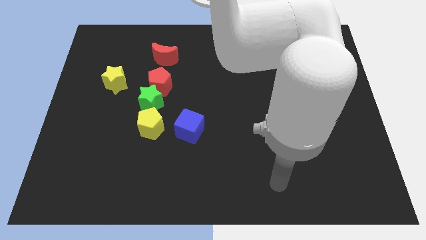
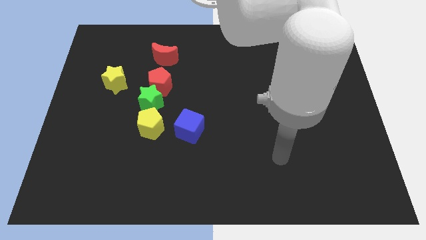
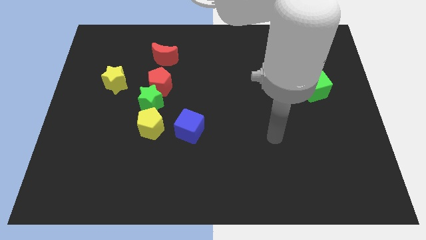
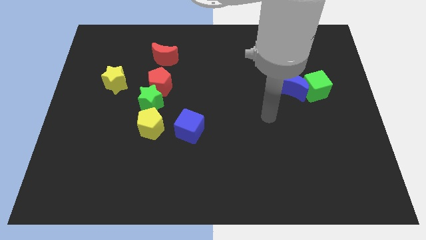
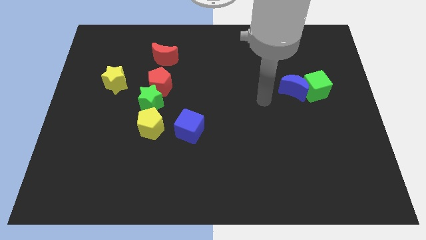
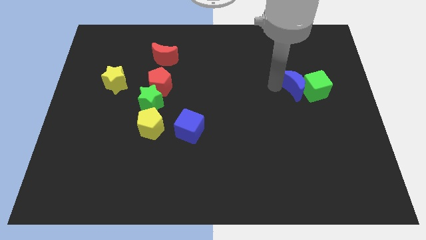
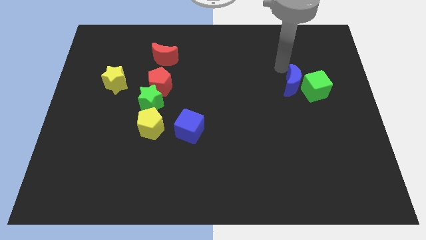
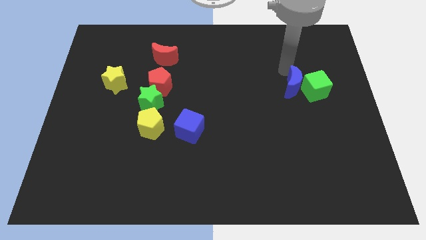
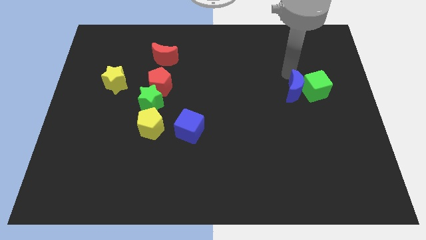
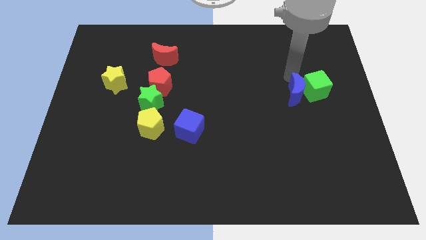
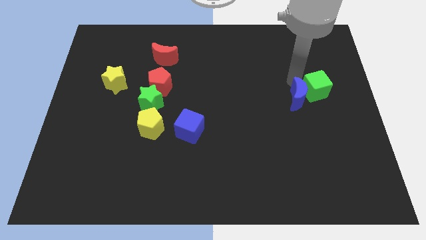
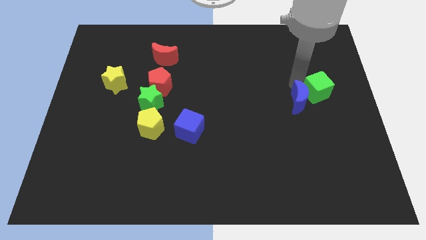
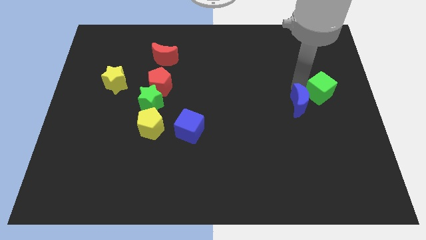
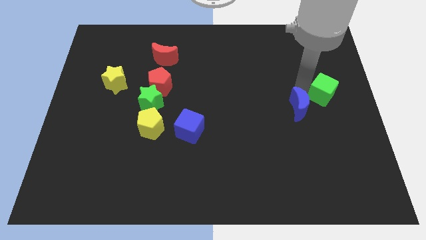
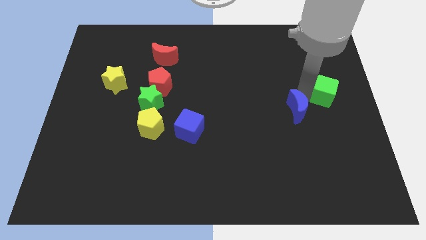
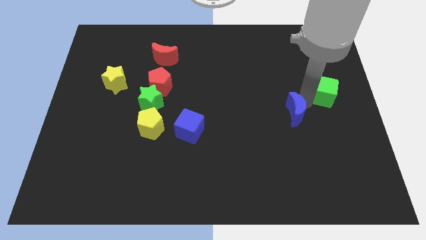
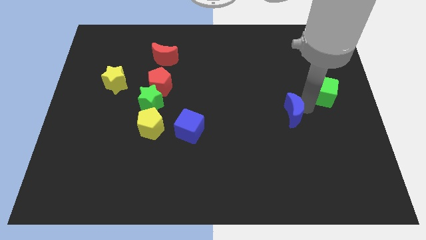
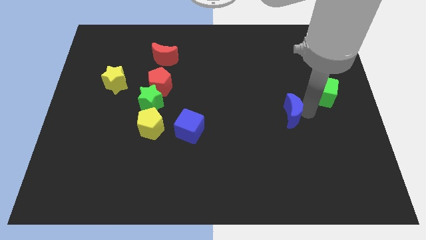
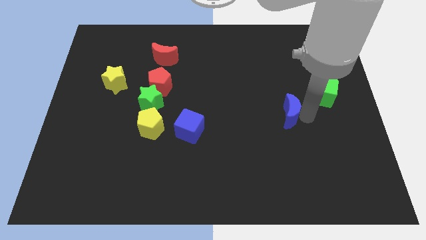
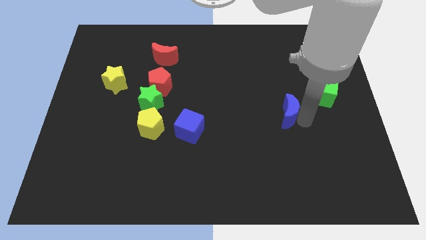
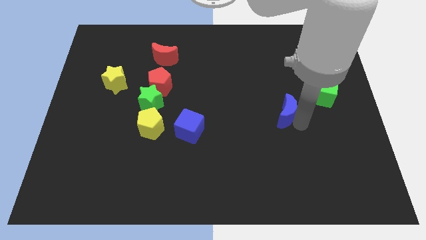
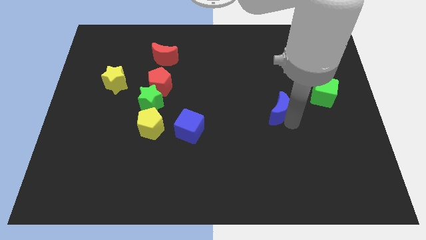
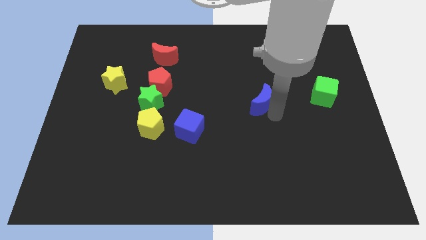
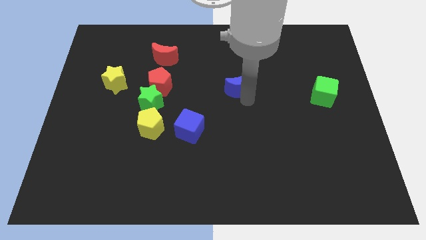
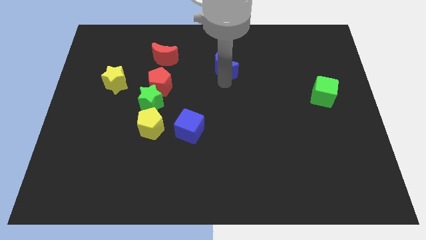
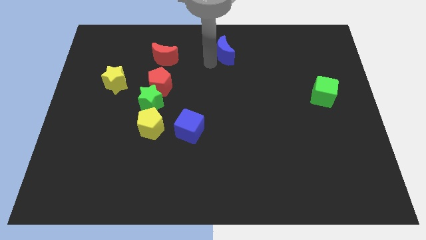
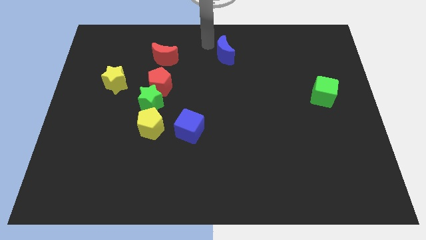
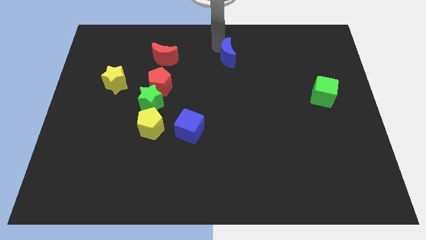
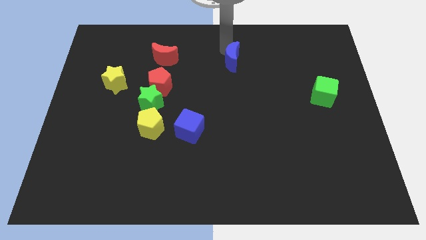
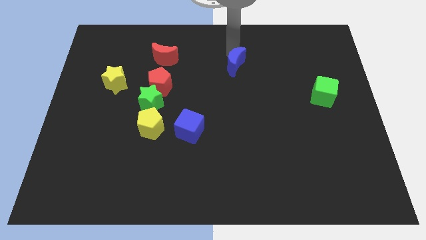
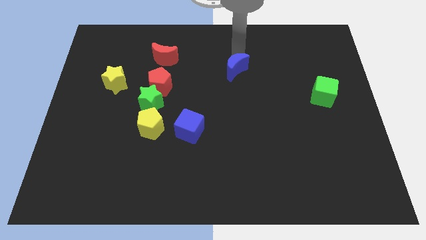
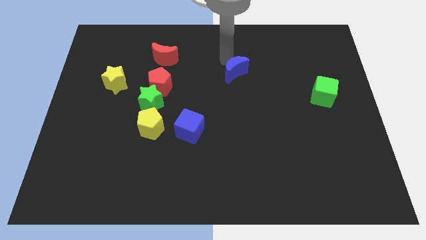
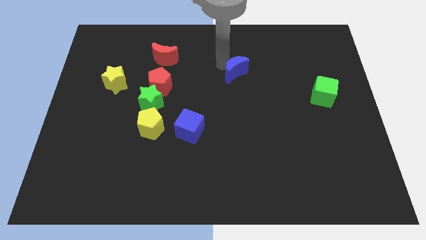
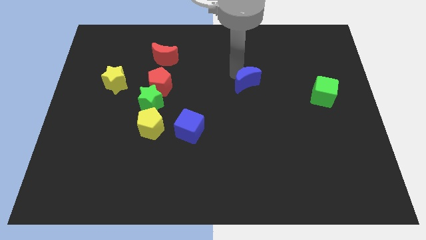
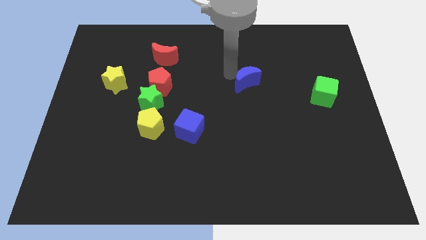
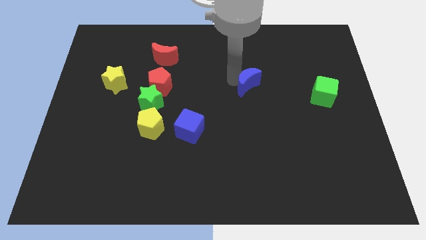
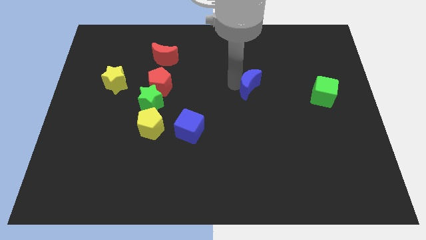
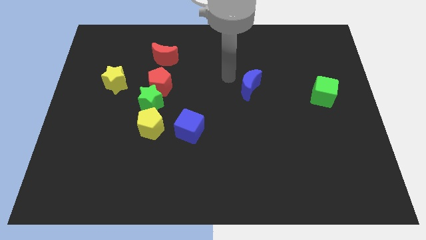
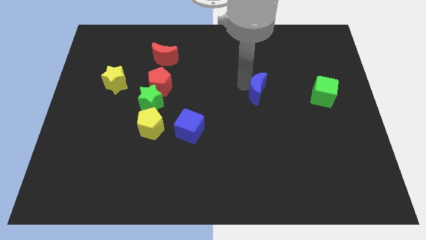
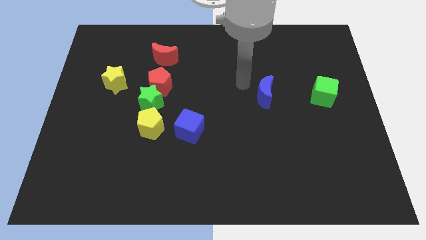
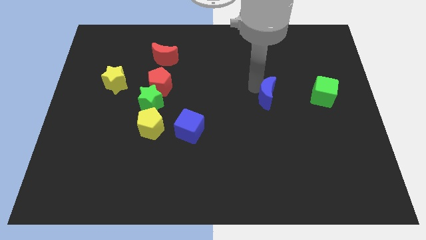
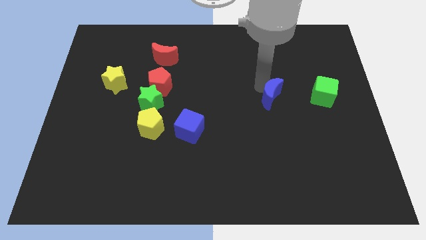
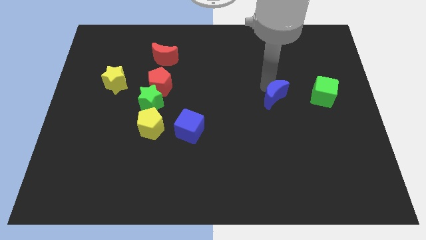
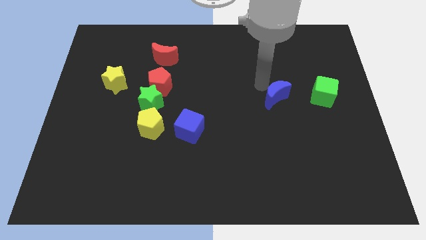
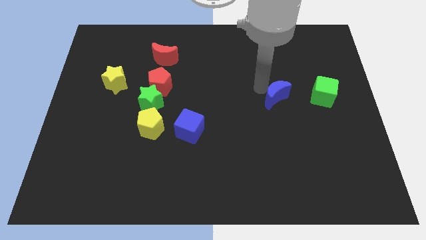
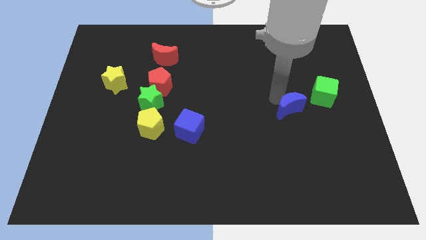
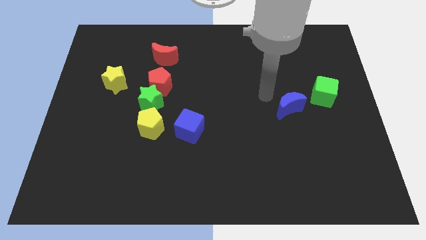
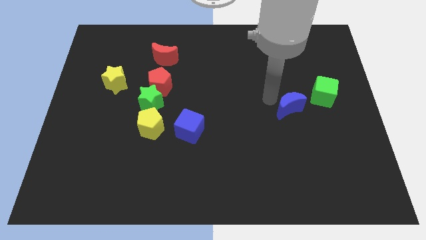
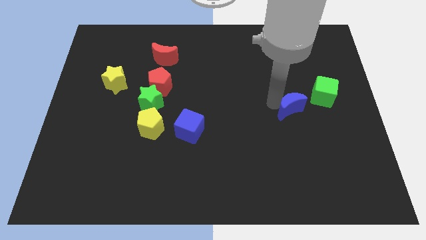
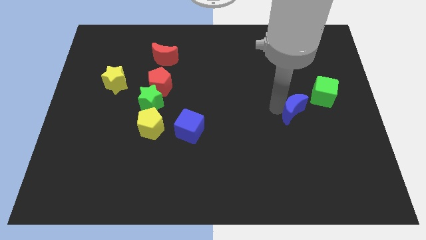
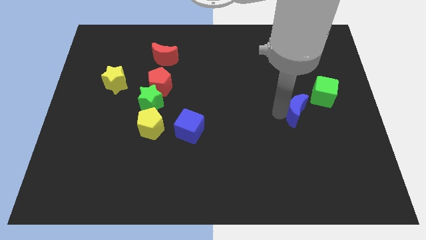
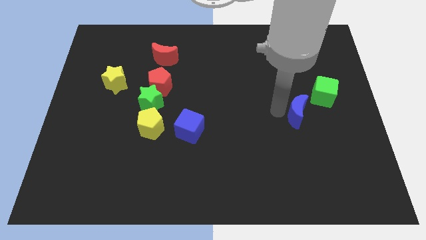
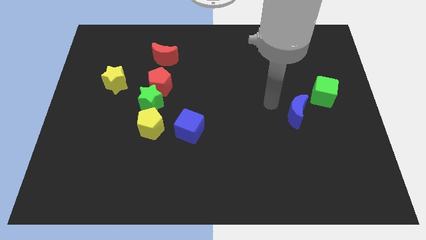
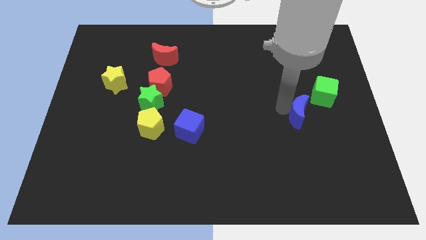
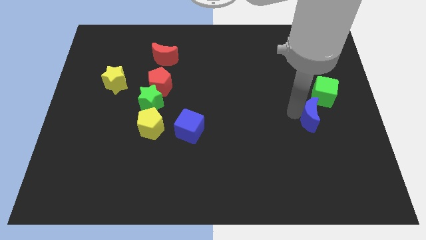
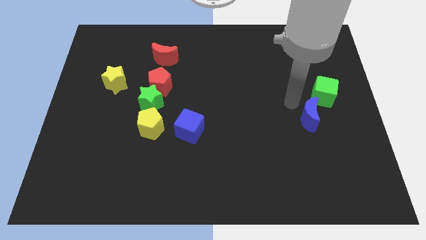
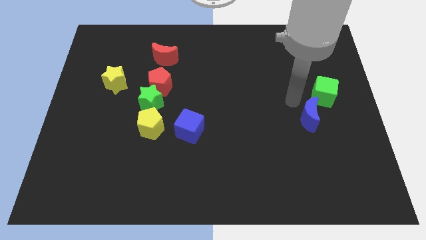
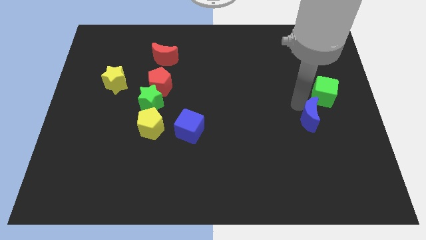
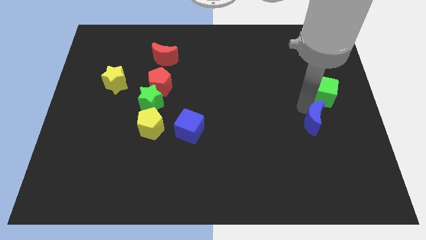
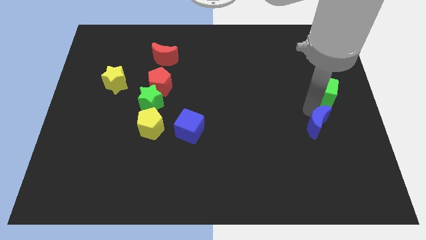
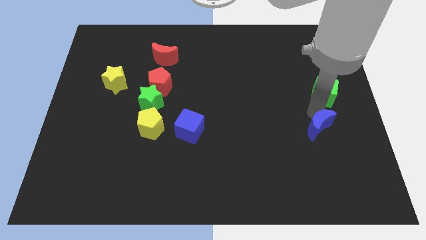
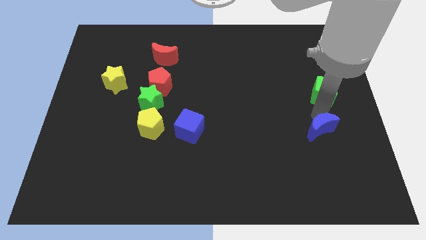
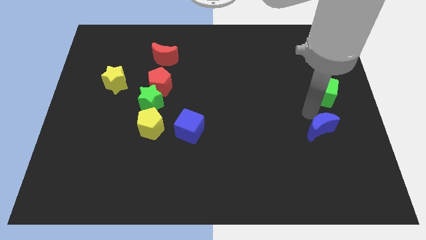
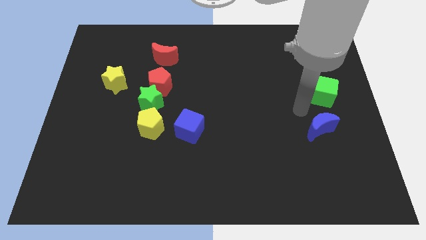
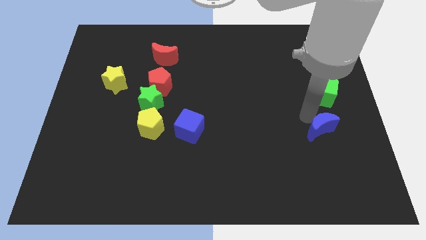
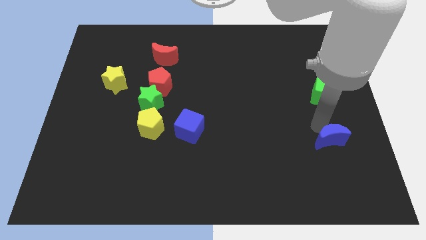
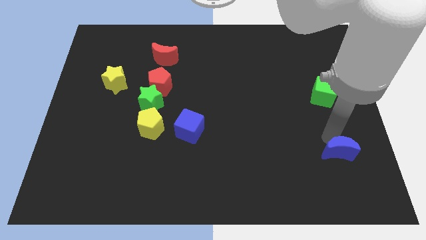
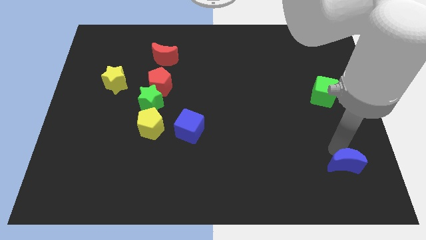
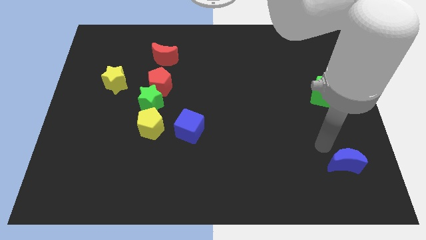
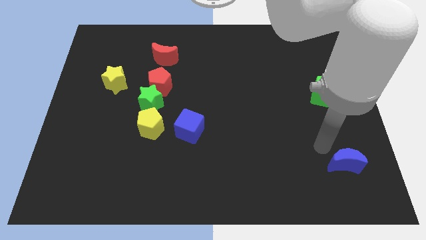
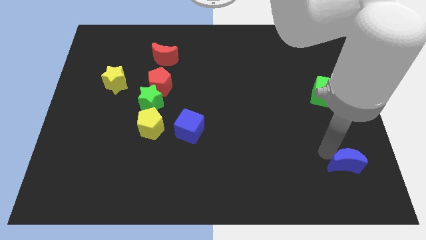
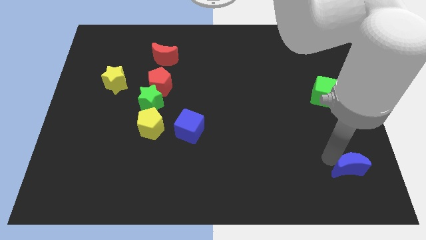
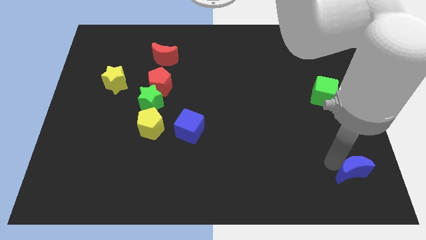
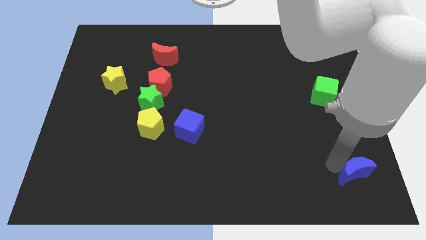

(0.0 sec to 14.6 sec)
move the blue moon to the bottom right corner
